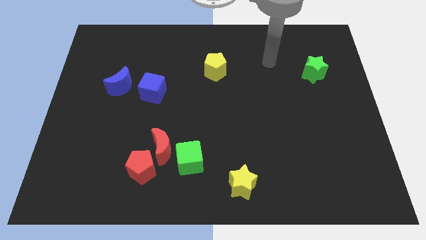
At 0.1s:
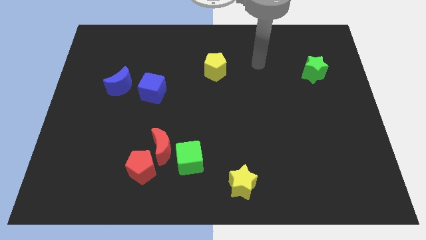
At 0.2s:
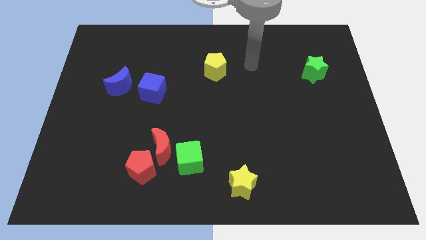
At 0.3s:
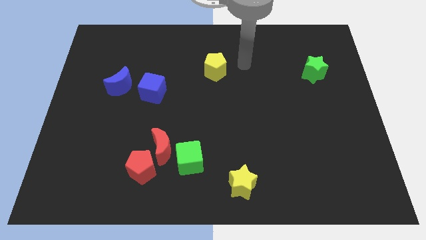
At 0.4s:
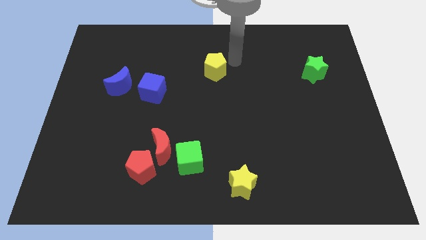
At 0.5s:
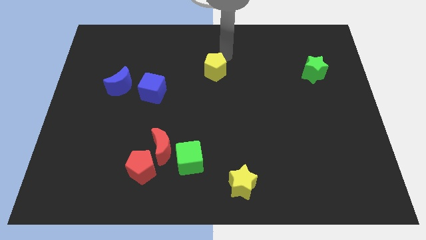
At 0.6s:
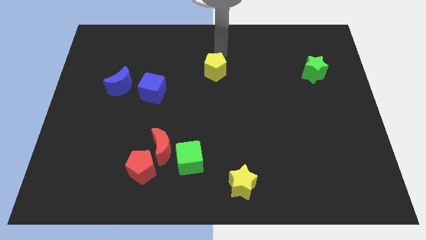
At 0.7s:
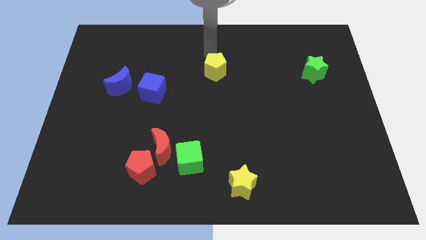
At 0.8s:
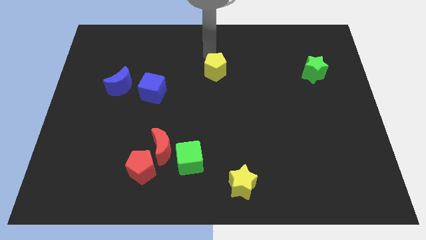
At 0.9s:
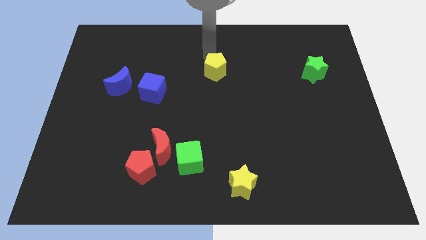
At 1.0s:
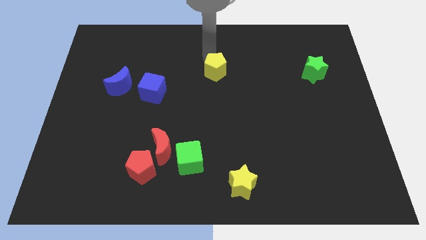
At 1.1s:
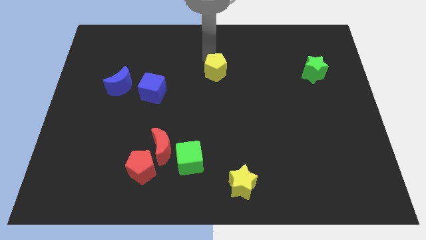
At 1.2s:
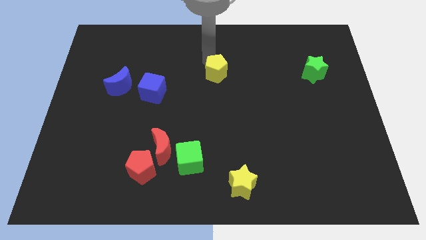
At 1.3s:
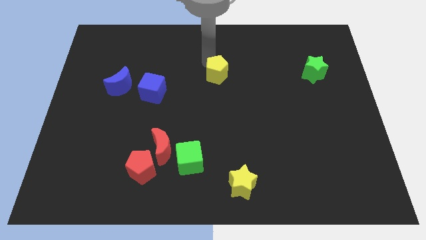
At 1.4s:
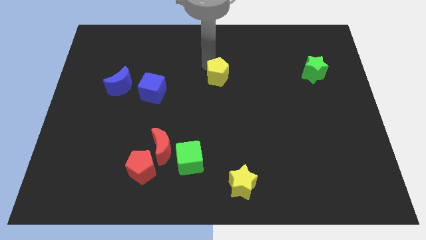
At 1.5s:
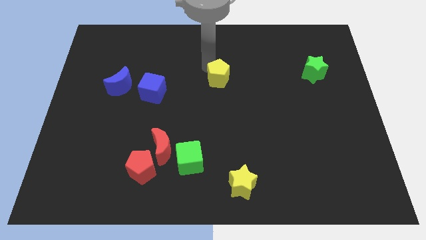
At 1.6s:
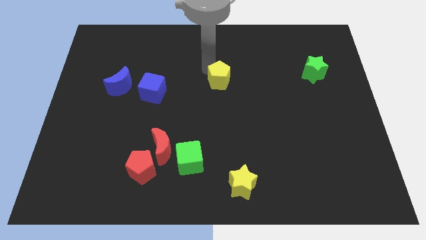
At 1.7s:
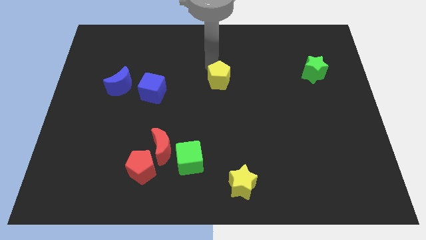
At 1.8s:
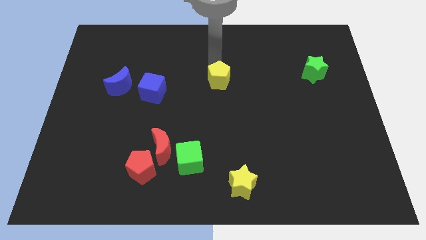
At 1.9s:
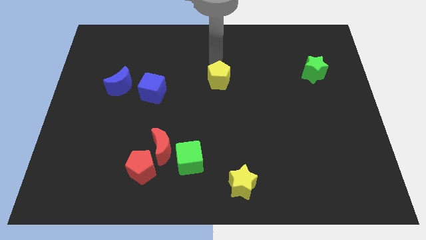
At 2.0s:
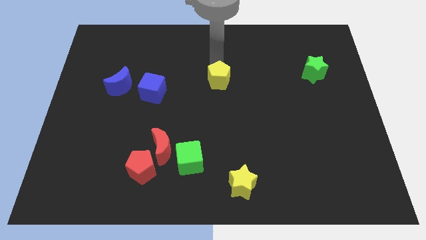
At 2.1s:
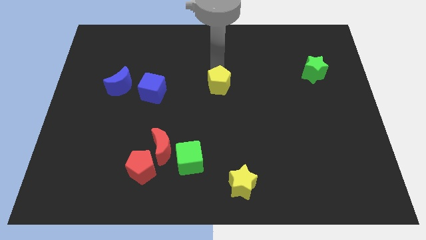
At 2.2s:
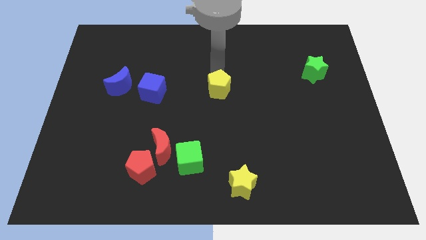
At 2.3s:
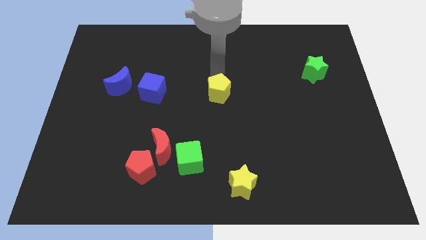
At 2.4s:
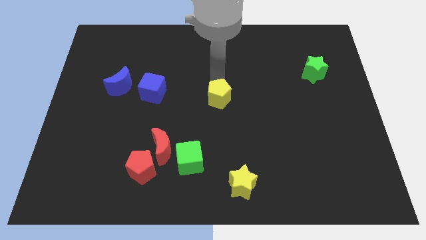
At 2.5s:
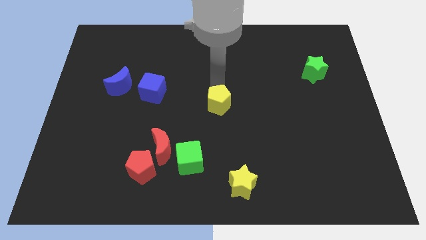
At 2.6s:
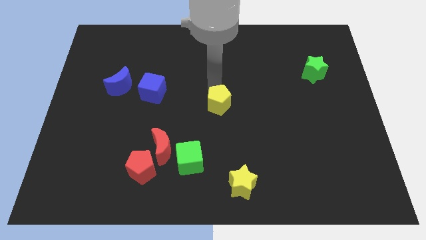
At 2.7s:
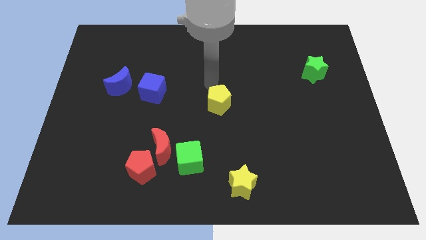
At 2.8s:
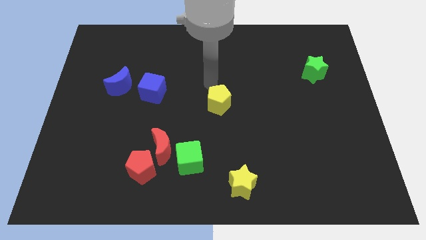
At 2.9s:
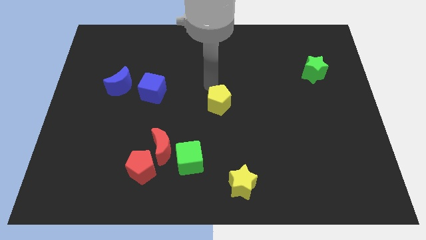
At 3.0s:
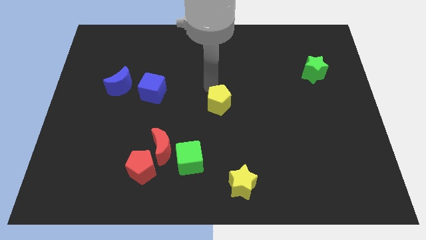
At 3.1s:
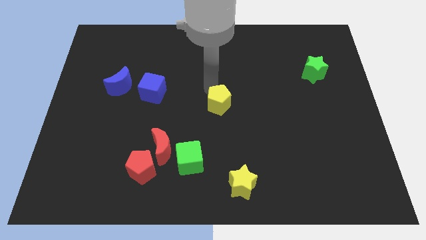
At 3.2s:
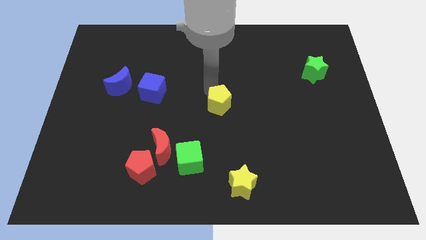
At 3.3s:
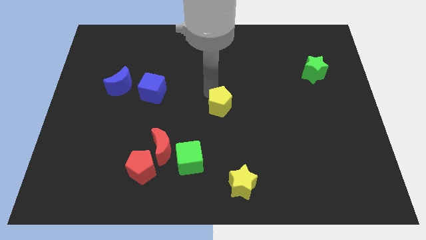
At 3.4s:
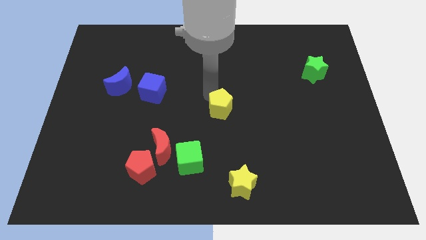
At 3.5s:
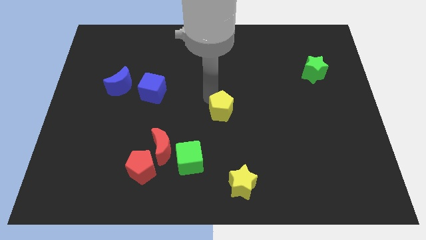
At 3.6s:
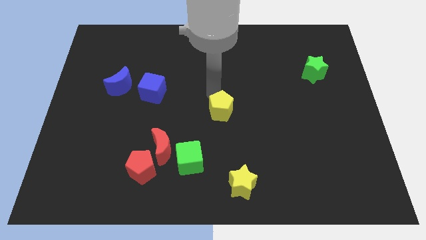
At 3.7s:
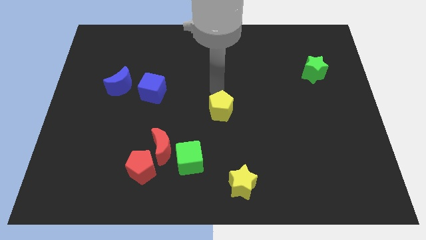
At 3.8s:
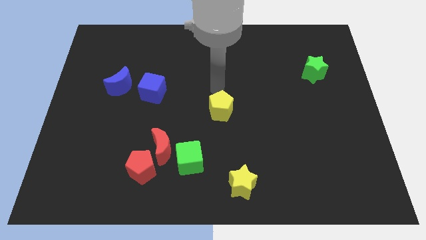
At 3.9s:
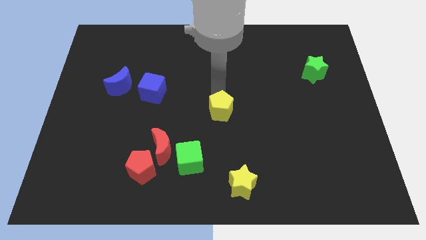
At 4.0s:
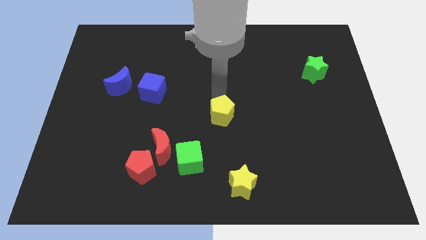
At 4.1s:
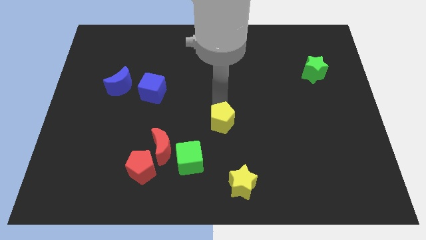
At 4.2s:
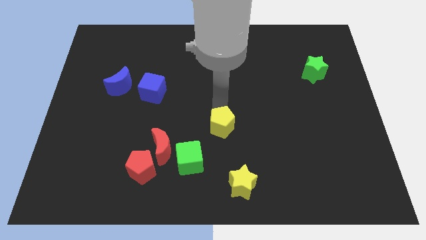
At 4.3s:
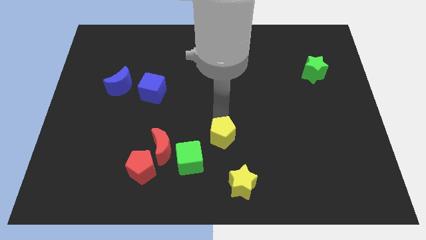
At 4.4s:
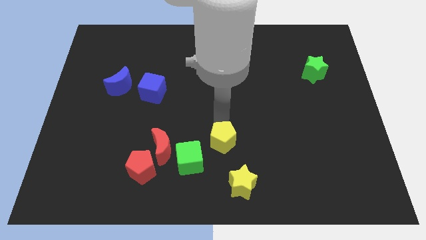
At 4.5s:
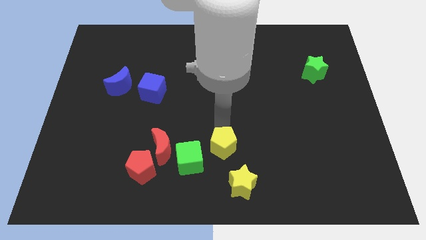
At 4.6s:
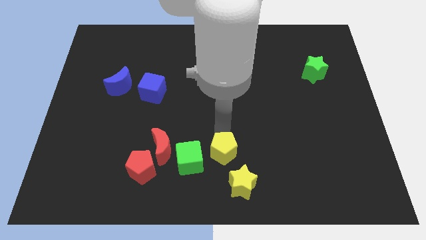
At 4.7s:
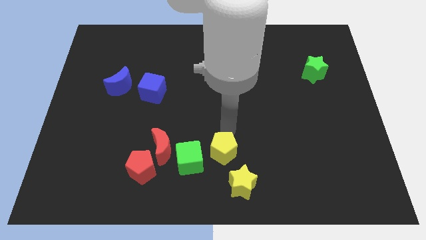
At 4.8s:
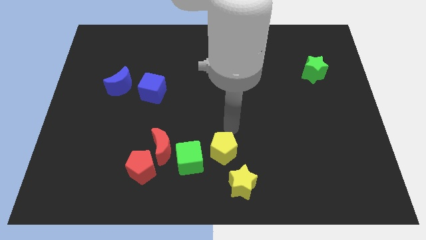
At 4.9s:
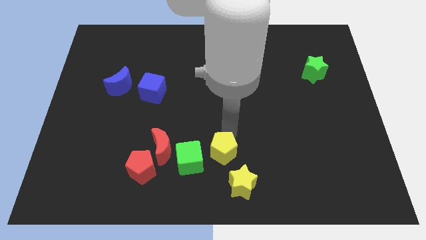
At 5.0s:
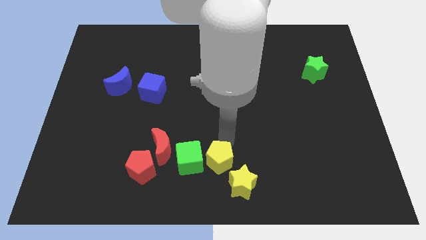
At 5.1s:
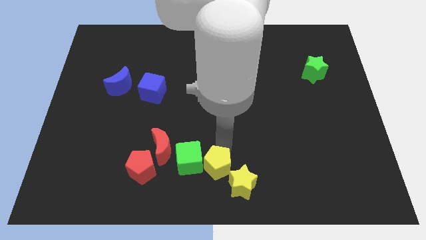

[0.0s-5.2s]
push the yellow pentagon just left of the yellow star

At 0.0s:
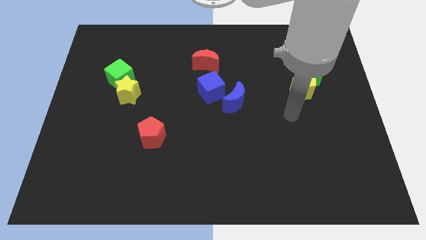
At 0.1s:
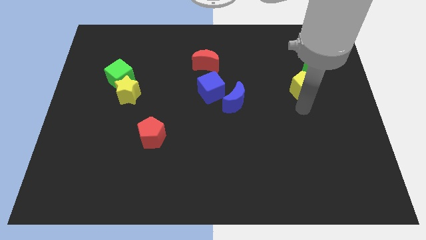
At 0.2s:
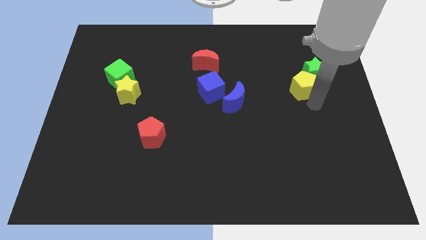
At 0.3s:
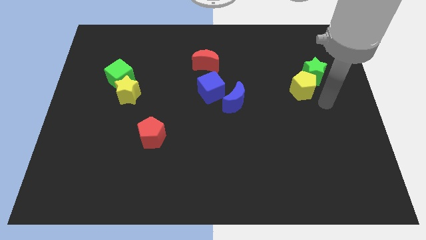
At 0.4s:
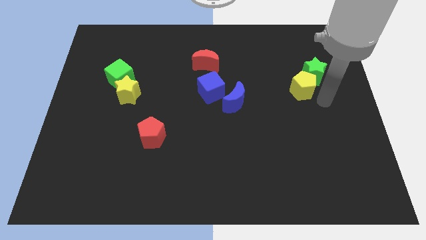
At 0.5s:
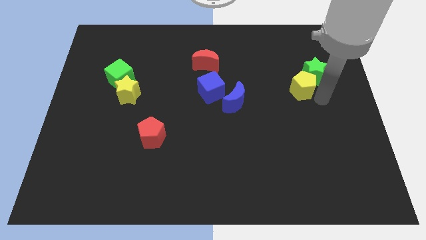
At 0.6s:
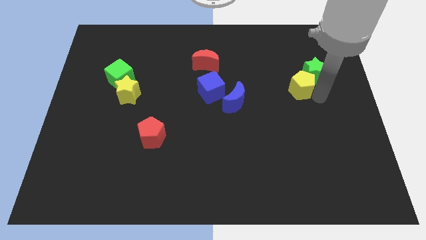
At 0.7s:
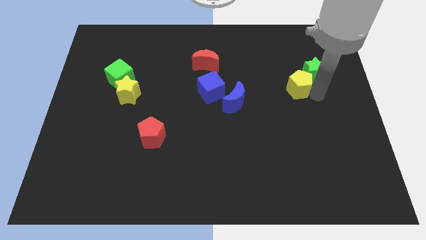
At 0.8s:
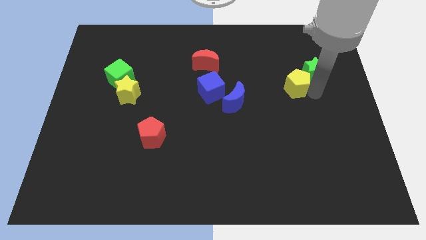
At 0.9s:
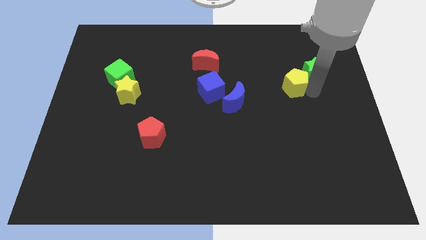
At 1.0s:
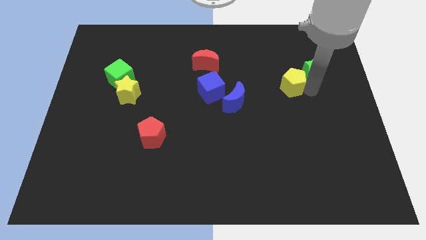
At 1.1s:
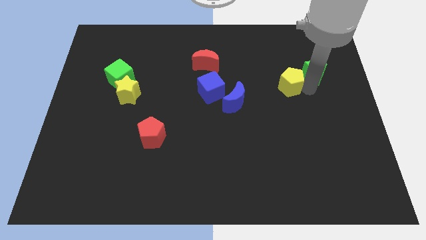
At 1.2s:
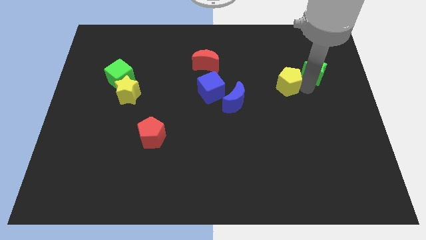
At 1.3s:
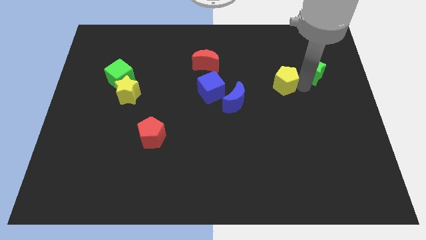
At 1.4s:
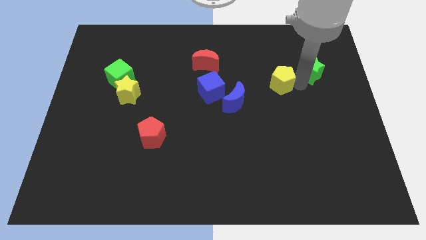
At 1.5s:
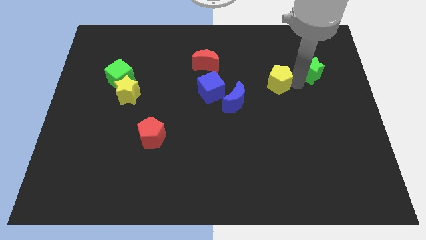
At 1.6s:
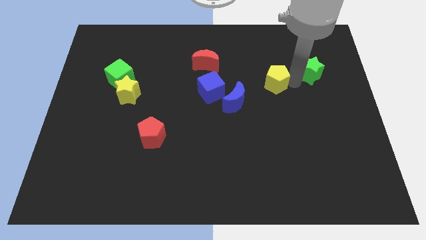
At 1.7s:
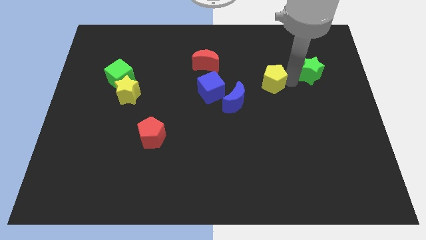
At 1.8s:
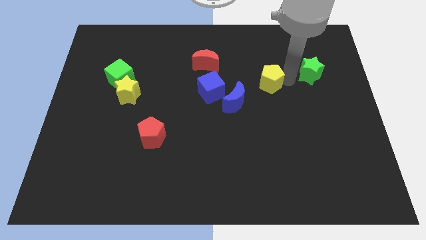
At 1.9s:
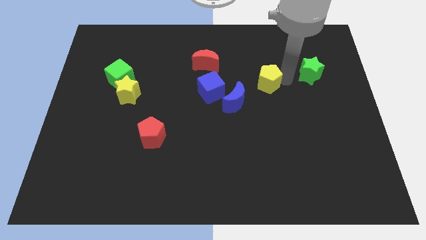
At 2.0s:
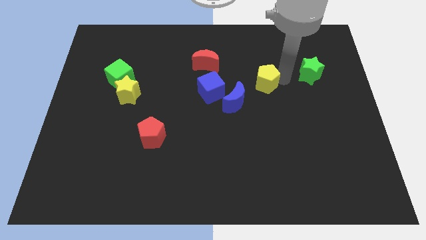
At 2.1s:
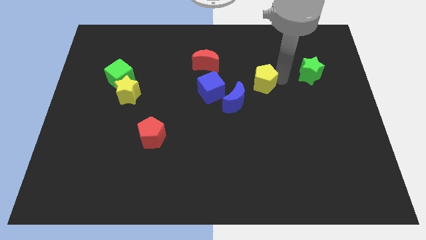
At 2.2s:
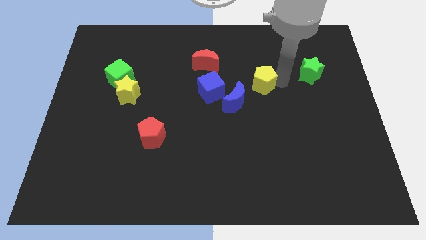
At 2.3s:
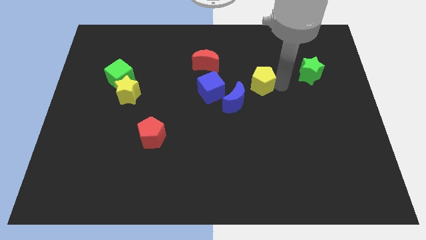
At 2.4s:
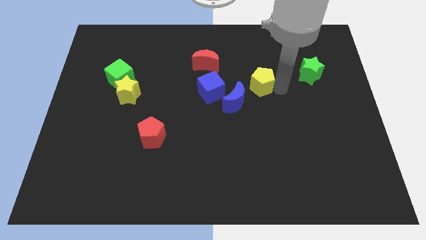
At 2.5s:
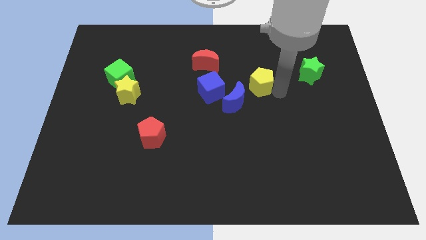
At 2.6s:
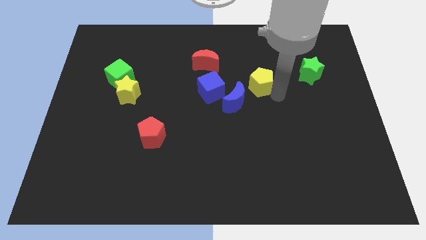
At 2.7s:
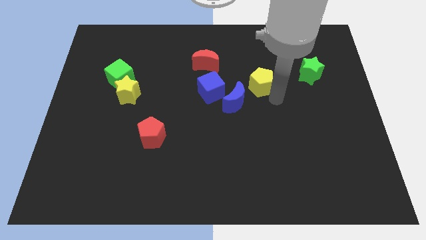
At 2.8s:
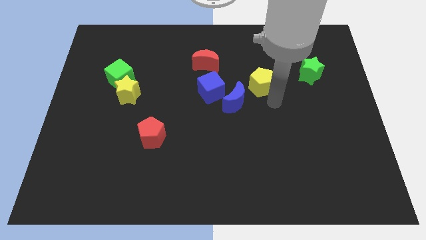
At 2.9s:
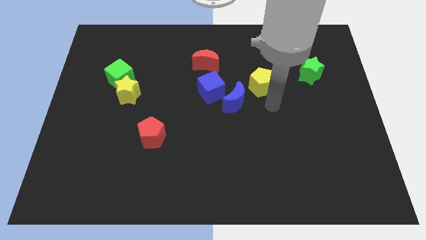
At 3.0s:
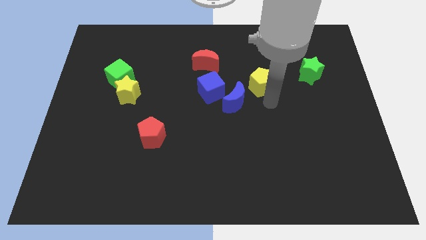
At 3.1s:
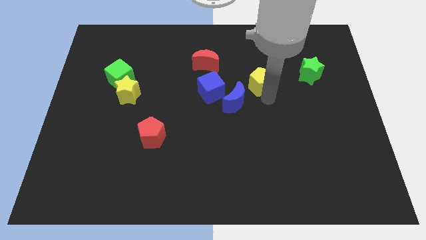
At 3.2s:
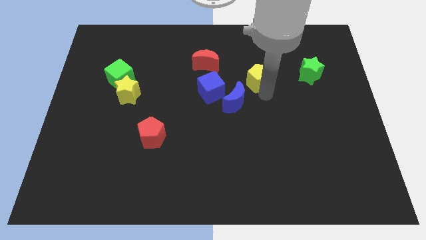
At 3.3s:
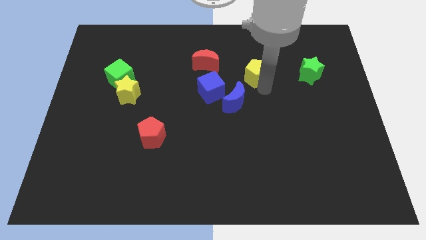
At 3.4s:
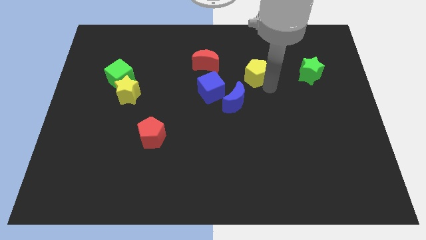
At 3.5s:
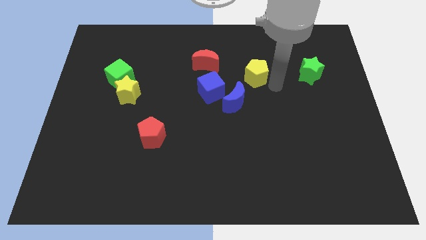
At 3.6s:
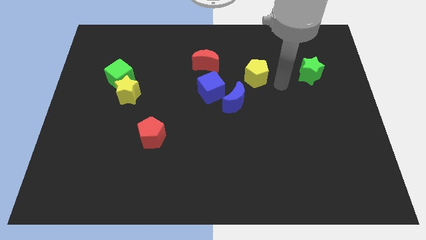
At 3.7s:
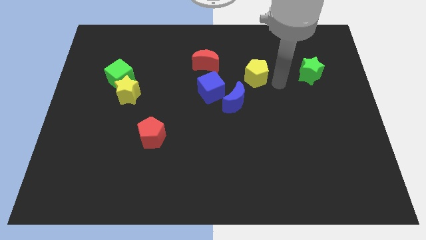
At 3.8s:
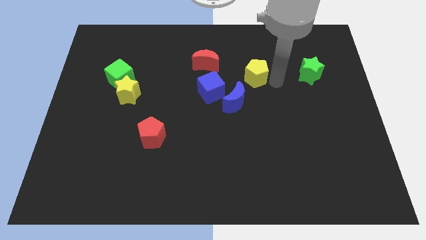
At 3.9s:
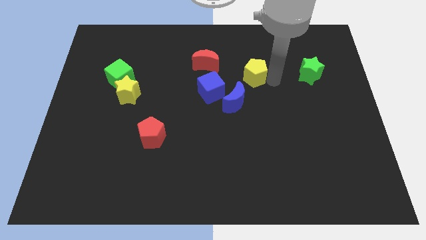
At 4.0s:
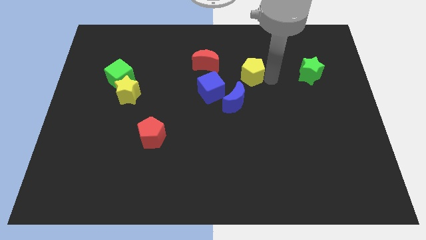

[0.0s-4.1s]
put the yellow pentagon above the blue moon
